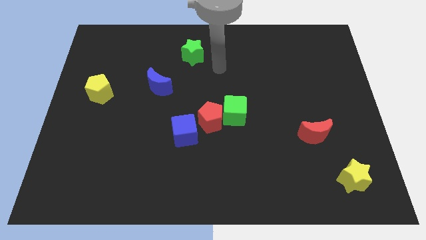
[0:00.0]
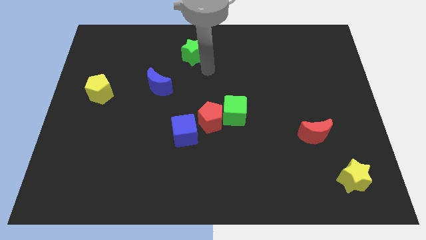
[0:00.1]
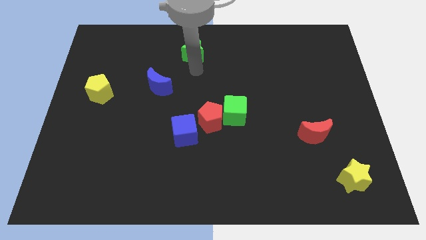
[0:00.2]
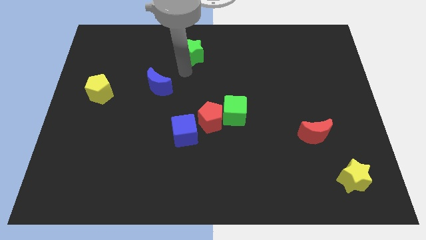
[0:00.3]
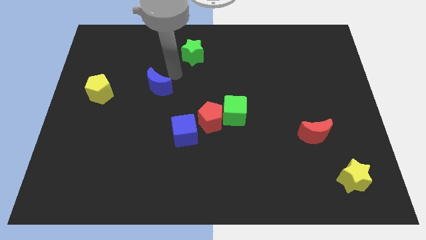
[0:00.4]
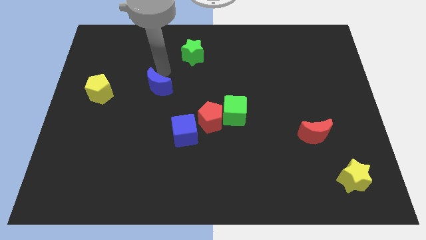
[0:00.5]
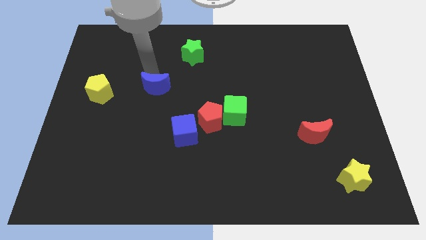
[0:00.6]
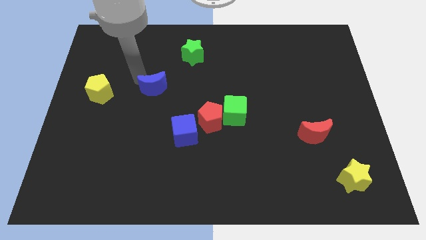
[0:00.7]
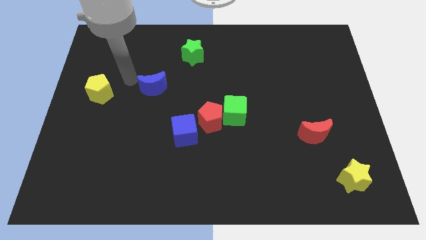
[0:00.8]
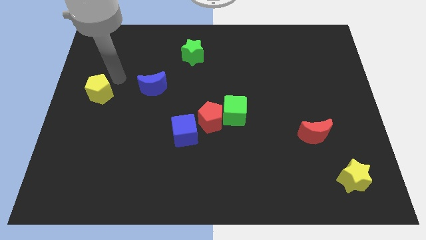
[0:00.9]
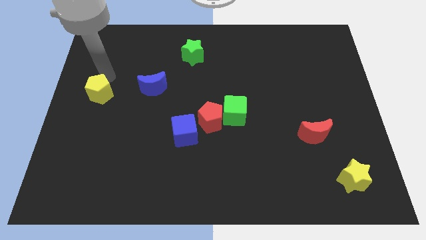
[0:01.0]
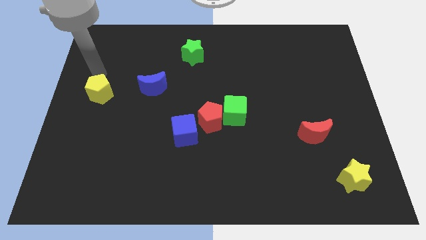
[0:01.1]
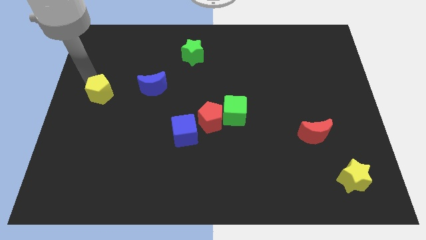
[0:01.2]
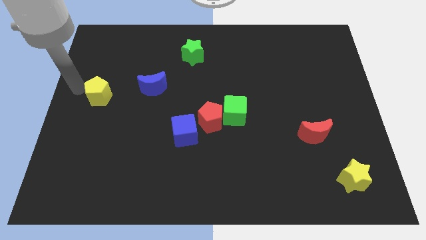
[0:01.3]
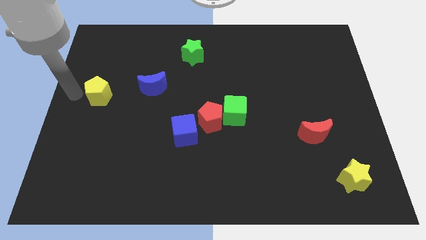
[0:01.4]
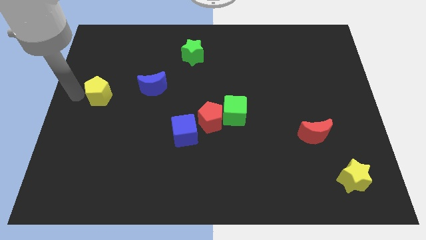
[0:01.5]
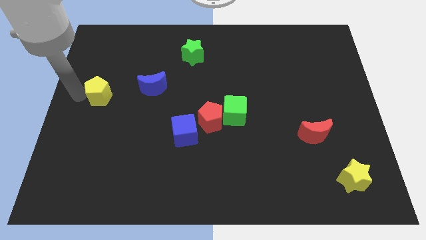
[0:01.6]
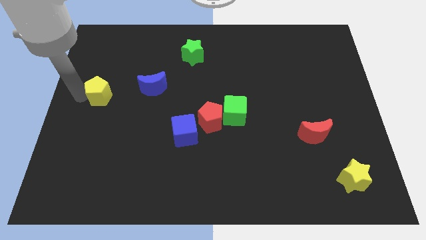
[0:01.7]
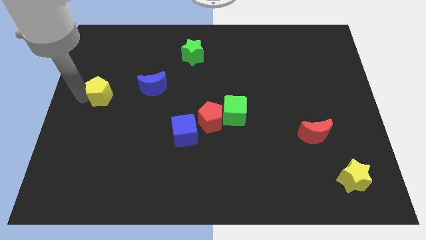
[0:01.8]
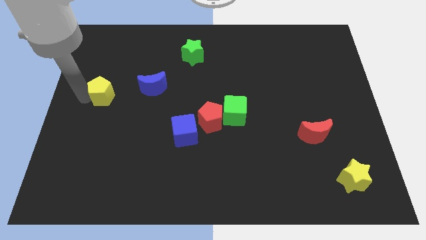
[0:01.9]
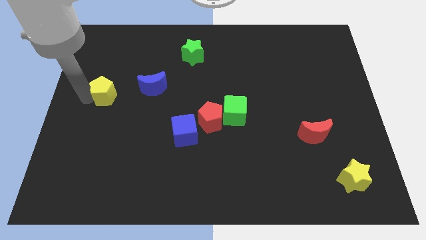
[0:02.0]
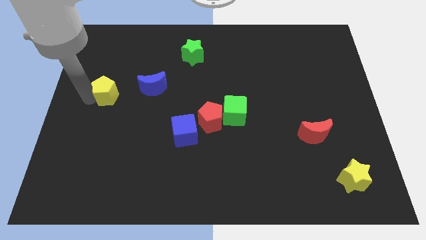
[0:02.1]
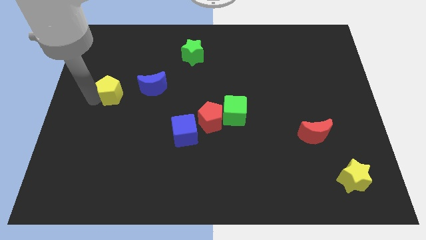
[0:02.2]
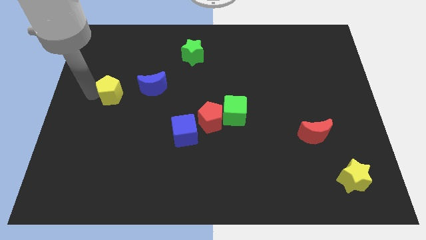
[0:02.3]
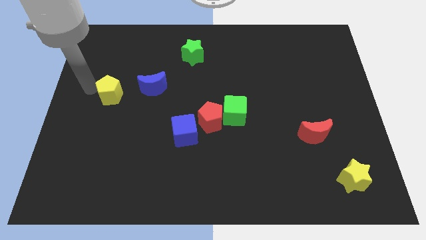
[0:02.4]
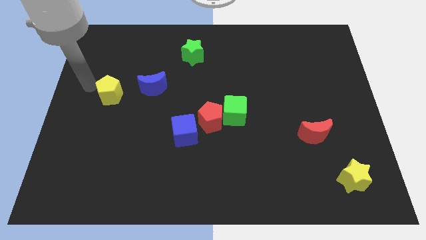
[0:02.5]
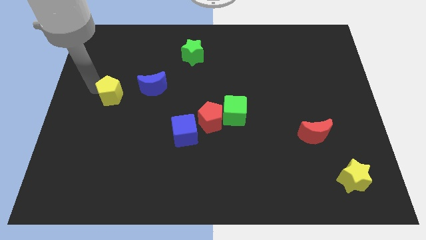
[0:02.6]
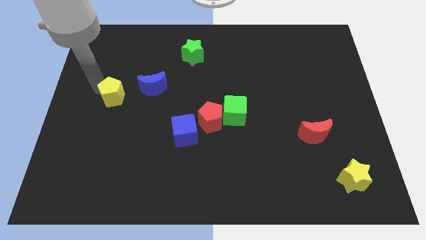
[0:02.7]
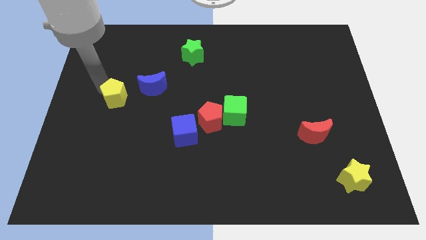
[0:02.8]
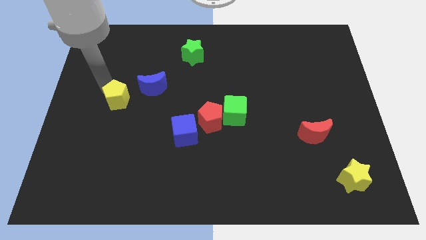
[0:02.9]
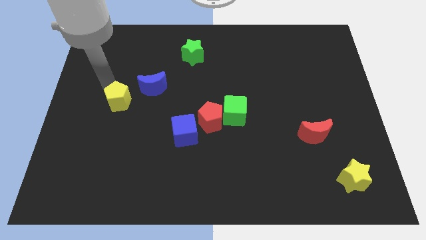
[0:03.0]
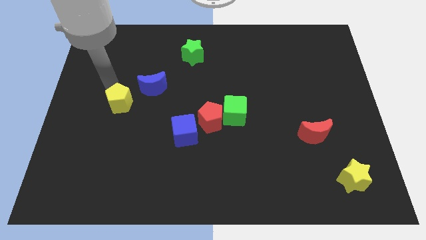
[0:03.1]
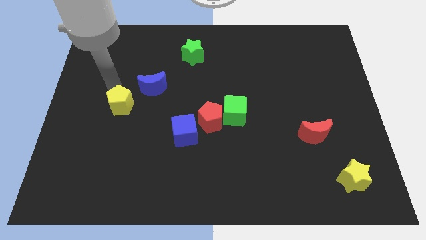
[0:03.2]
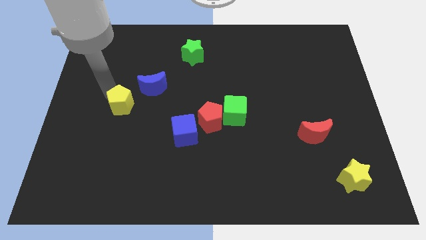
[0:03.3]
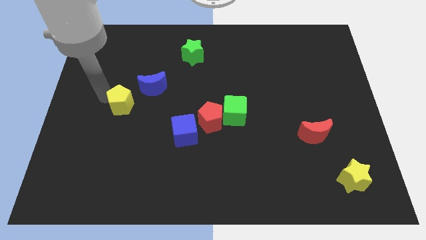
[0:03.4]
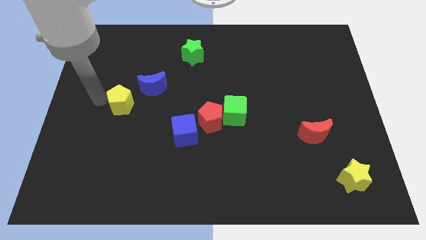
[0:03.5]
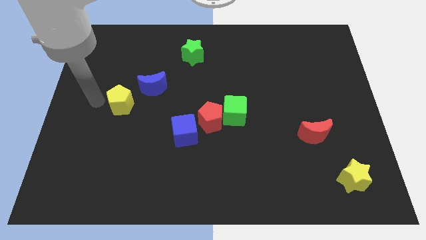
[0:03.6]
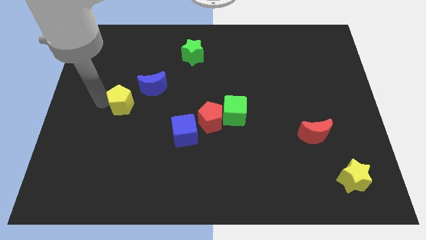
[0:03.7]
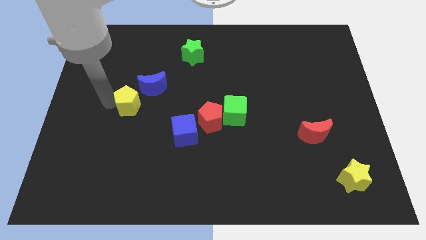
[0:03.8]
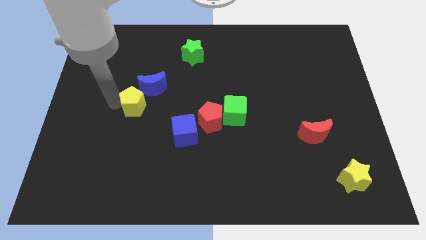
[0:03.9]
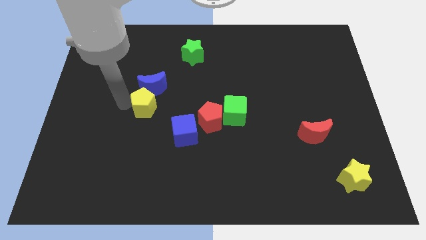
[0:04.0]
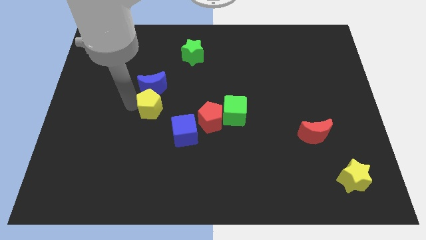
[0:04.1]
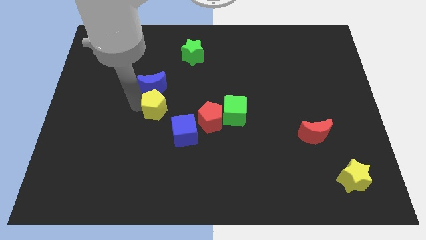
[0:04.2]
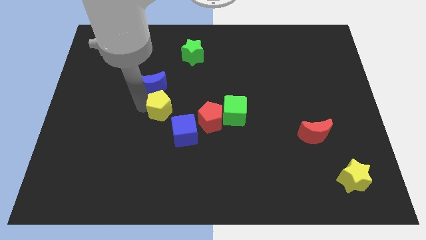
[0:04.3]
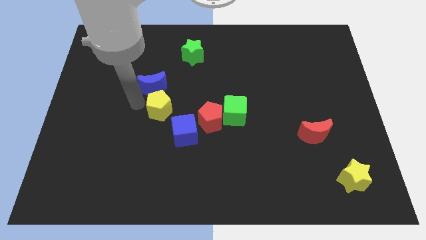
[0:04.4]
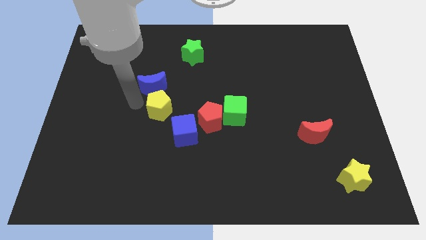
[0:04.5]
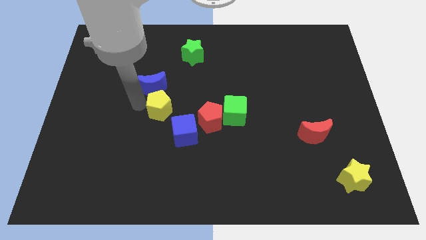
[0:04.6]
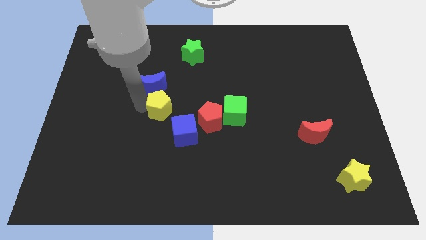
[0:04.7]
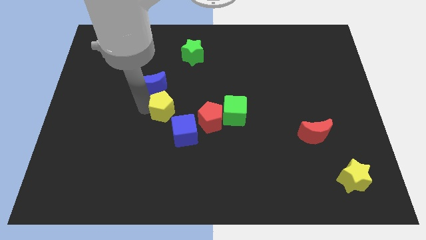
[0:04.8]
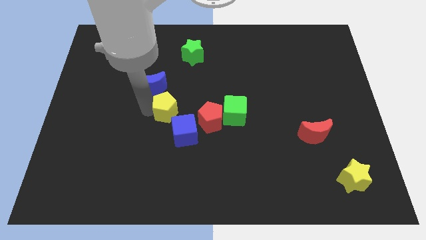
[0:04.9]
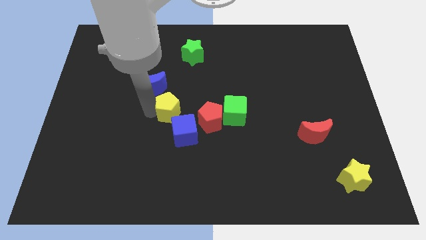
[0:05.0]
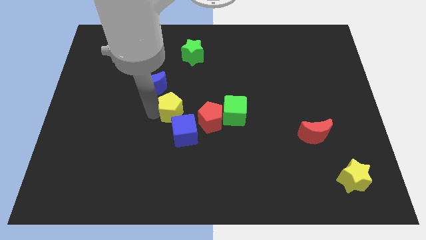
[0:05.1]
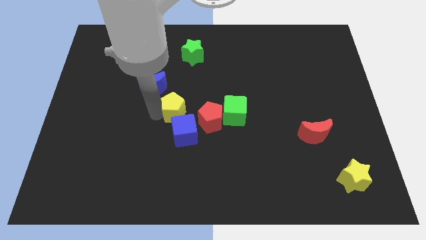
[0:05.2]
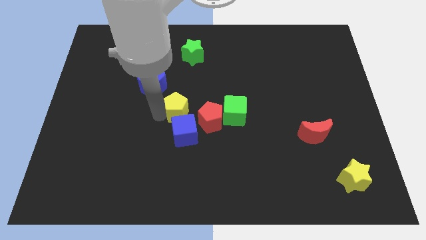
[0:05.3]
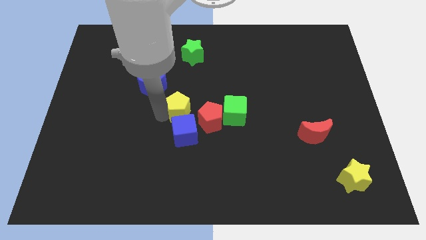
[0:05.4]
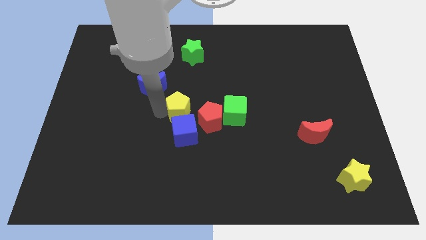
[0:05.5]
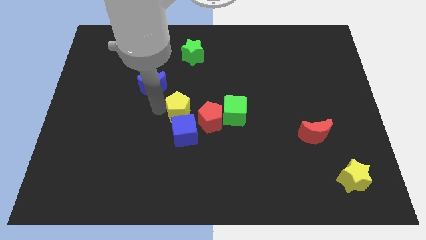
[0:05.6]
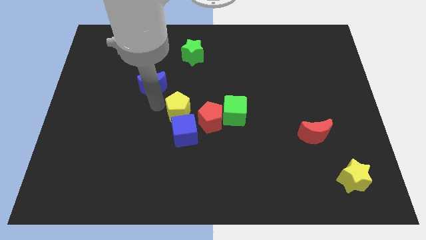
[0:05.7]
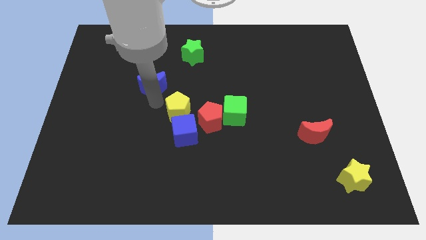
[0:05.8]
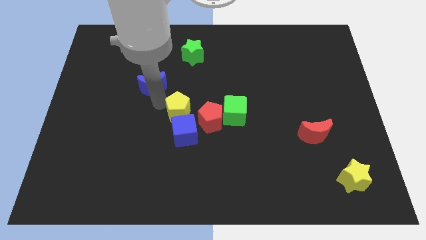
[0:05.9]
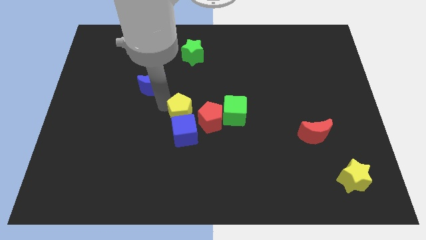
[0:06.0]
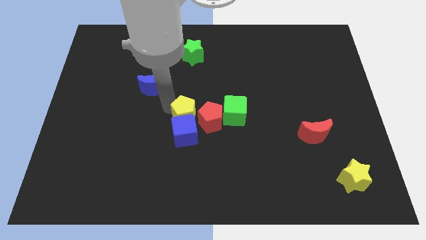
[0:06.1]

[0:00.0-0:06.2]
put the yellow pentagon to the red pentagon

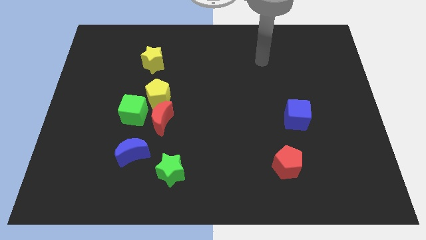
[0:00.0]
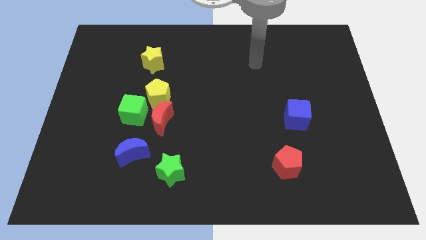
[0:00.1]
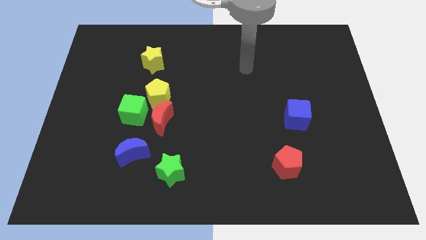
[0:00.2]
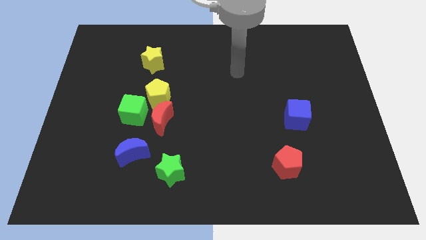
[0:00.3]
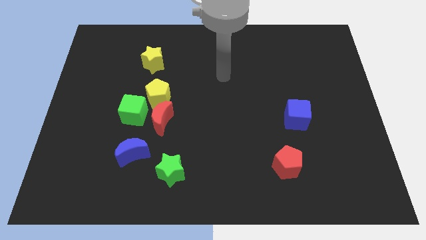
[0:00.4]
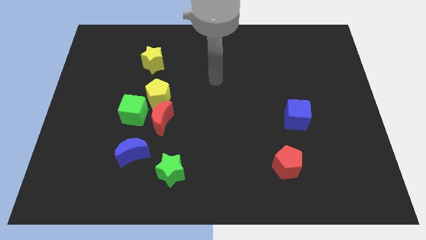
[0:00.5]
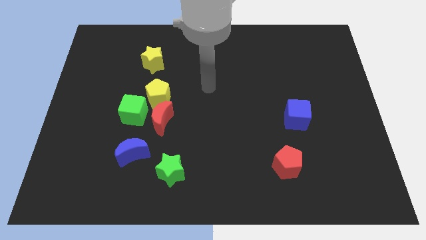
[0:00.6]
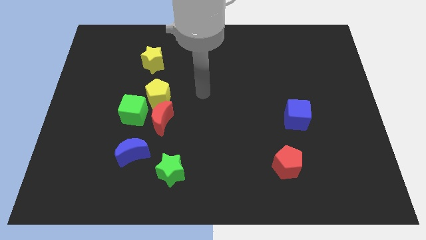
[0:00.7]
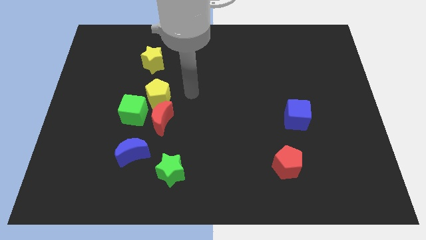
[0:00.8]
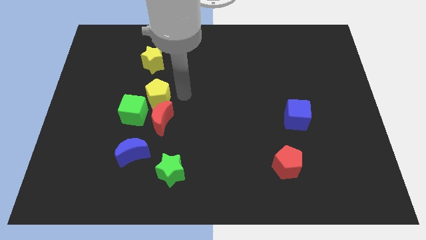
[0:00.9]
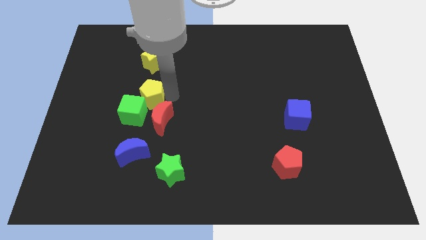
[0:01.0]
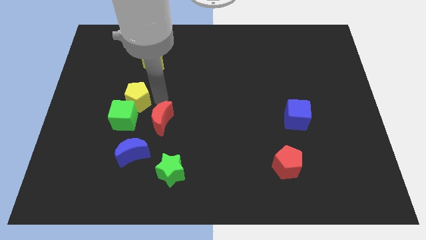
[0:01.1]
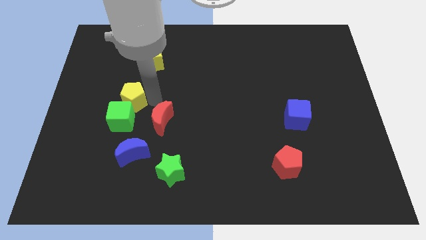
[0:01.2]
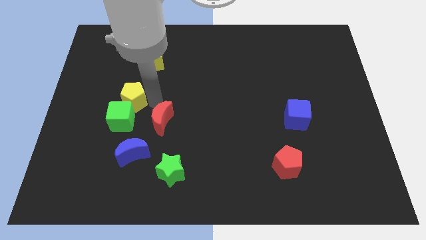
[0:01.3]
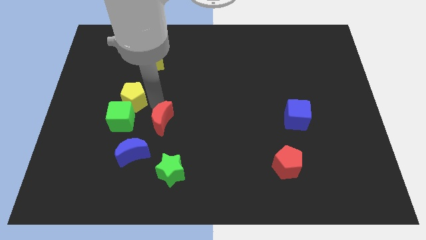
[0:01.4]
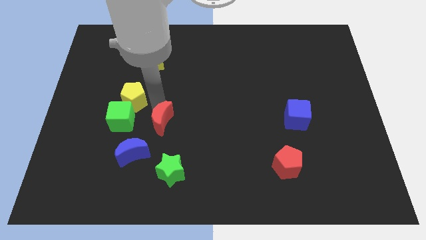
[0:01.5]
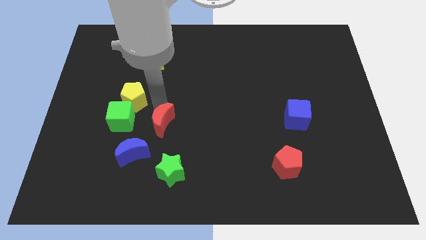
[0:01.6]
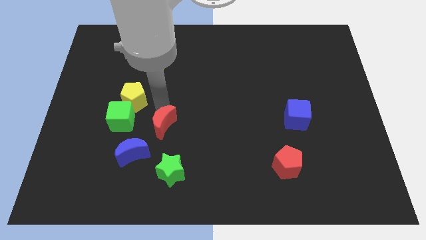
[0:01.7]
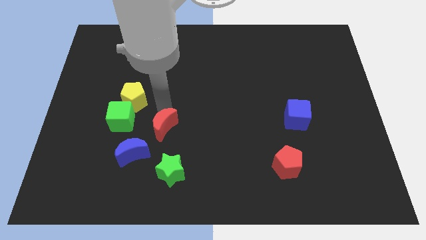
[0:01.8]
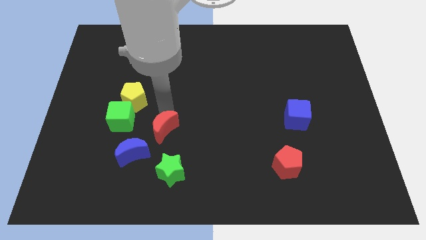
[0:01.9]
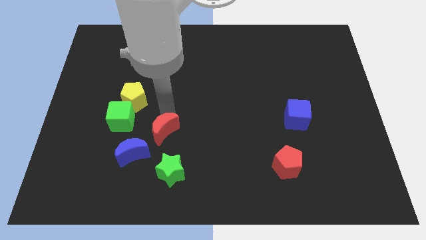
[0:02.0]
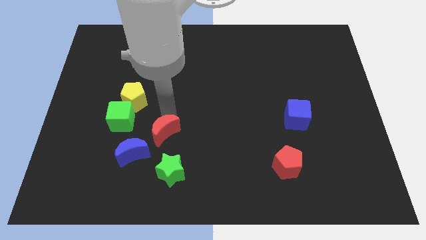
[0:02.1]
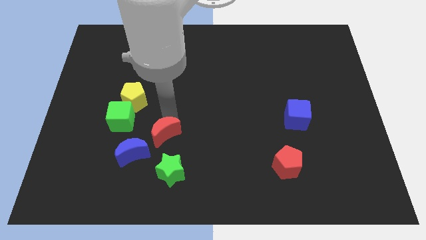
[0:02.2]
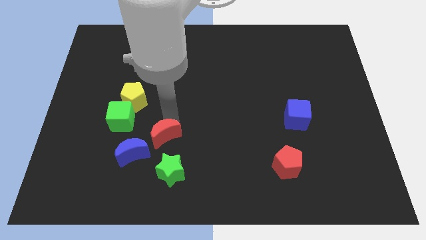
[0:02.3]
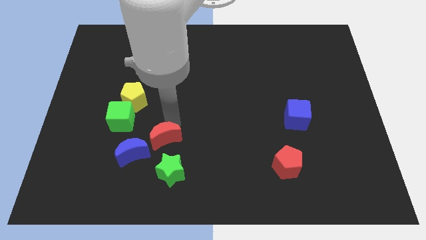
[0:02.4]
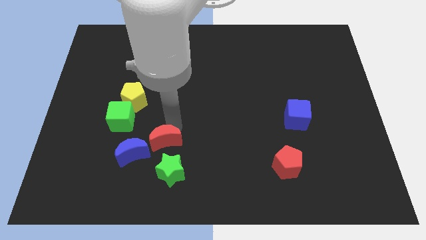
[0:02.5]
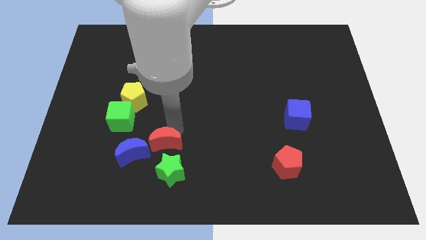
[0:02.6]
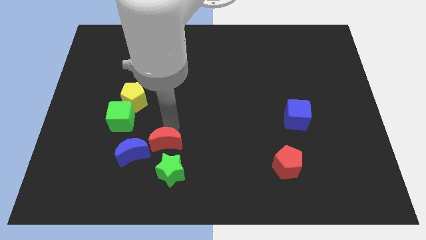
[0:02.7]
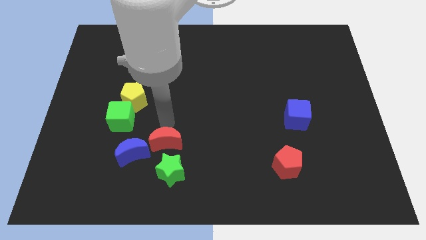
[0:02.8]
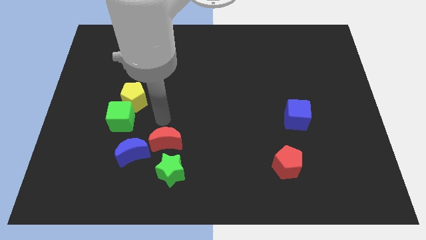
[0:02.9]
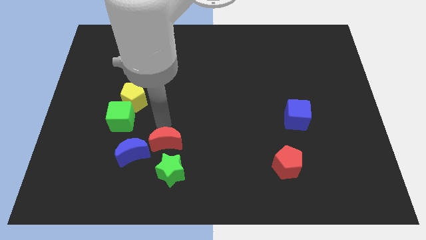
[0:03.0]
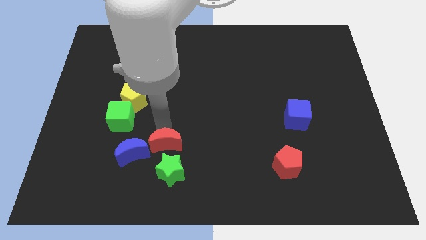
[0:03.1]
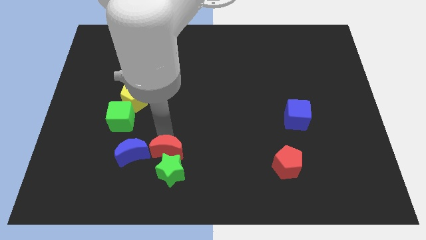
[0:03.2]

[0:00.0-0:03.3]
slide the red moon close to the green star
